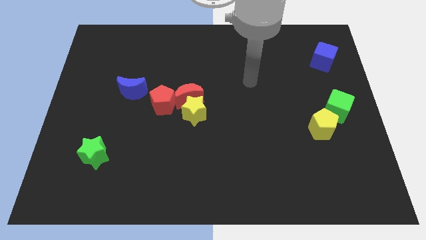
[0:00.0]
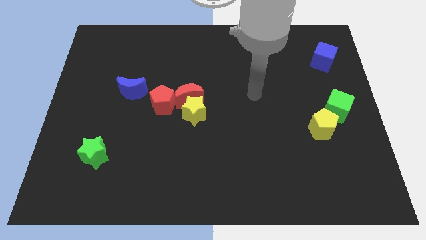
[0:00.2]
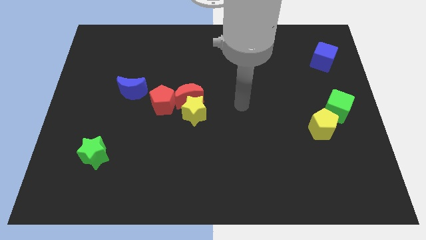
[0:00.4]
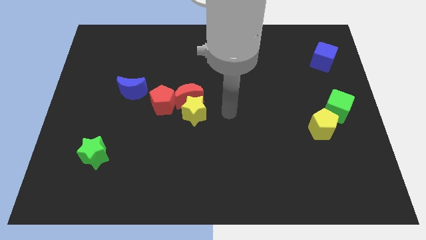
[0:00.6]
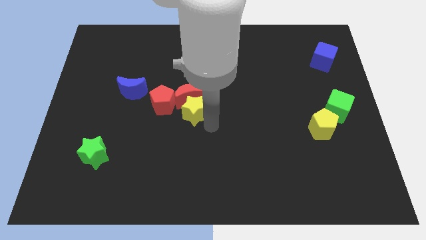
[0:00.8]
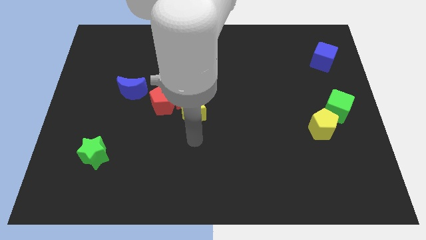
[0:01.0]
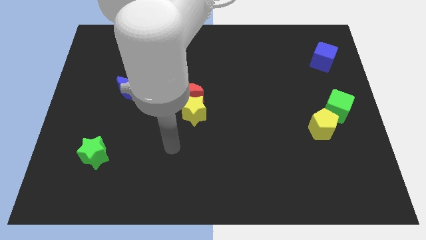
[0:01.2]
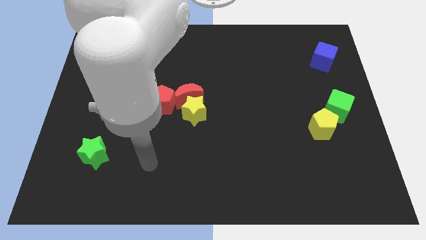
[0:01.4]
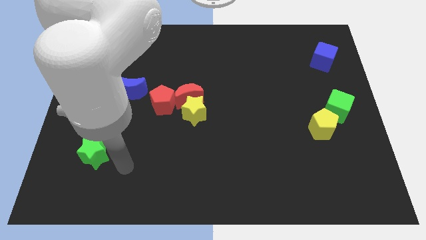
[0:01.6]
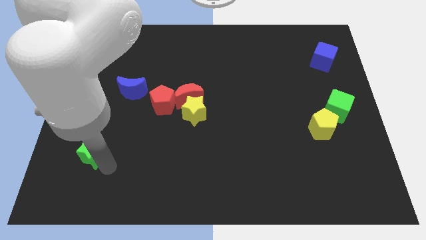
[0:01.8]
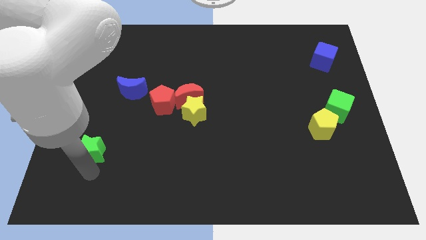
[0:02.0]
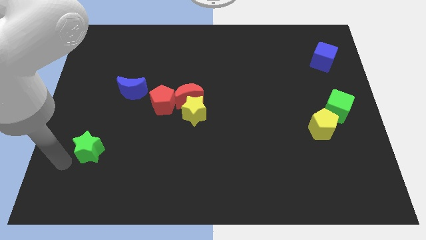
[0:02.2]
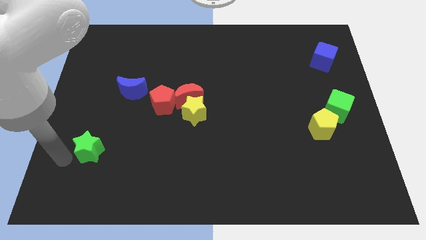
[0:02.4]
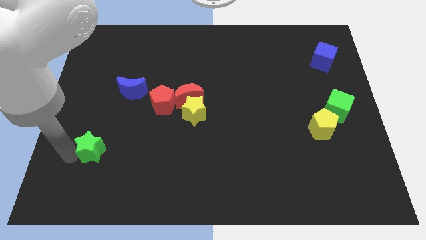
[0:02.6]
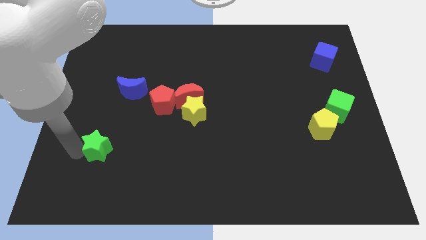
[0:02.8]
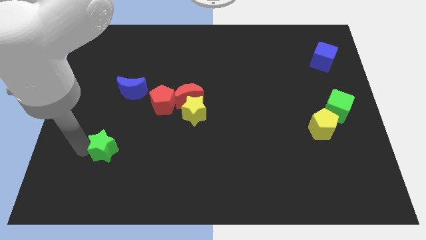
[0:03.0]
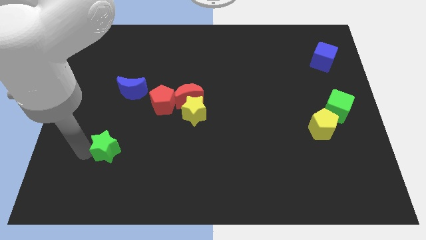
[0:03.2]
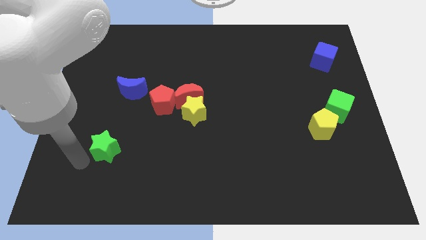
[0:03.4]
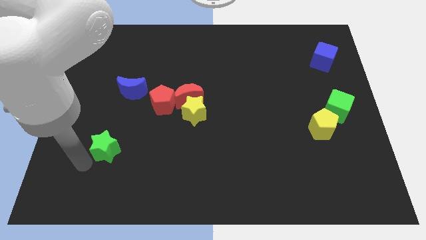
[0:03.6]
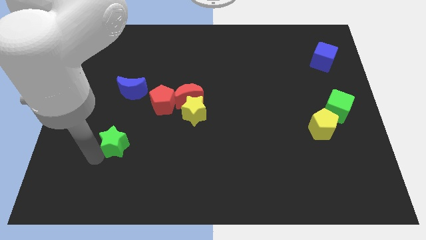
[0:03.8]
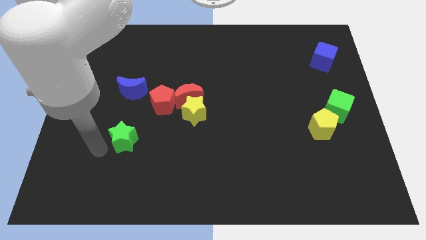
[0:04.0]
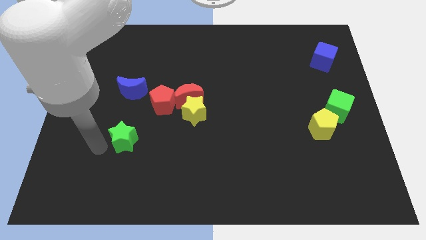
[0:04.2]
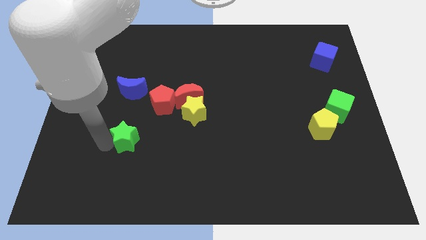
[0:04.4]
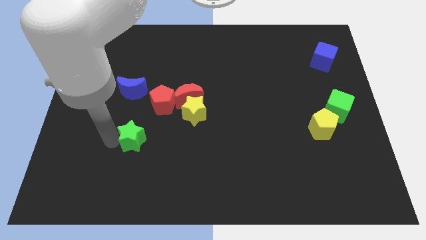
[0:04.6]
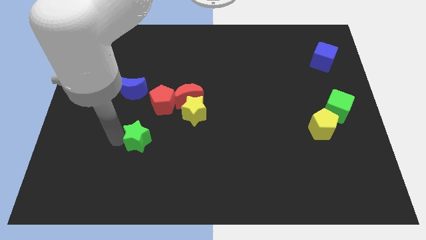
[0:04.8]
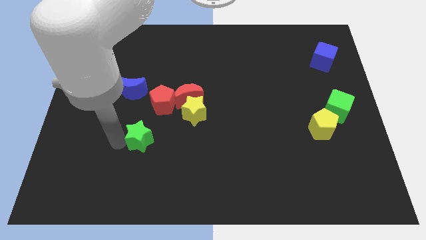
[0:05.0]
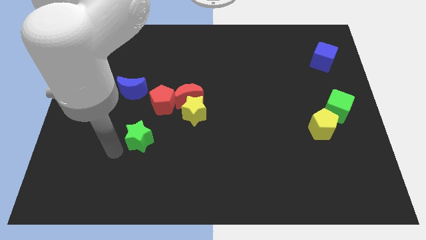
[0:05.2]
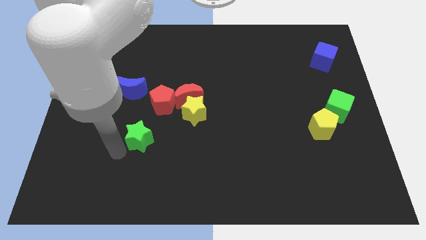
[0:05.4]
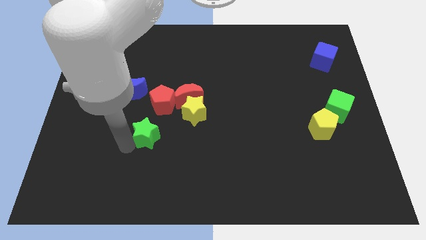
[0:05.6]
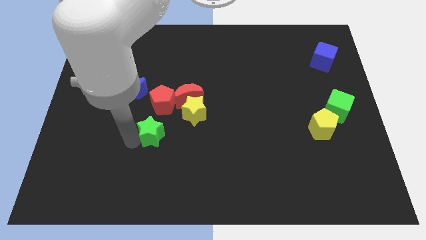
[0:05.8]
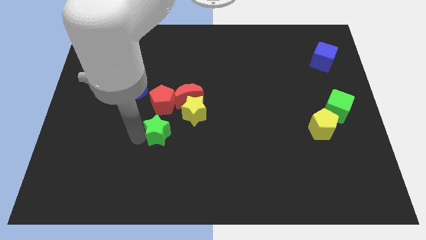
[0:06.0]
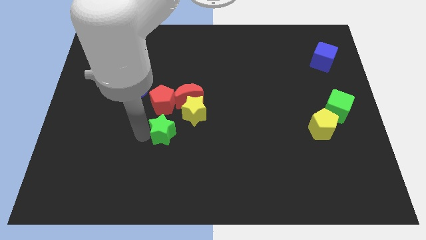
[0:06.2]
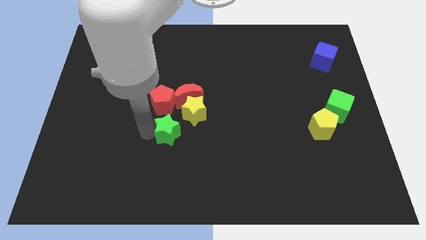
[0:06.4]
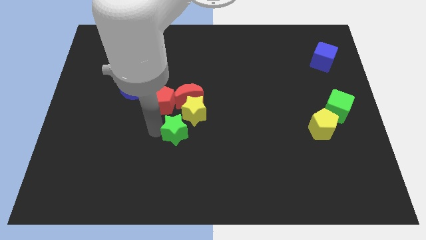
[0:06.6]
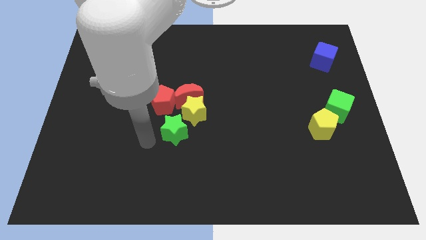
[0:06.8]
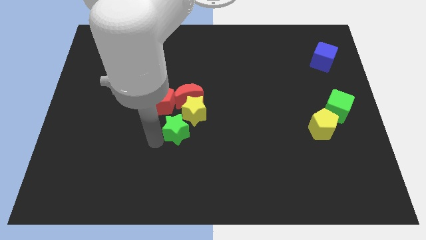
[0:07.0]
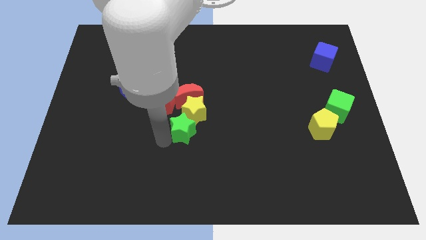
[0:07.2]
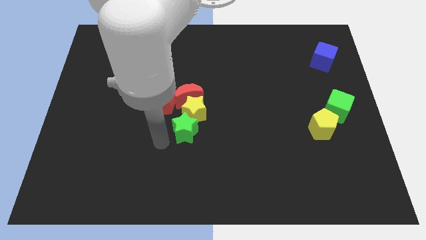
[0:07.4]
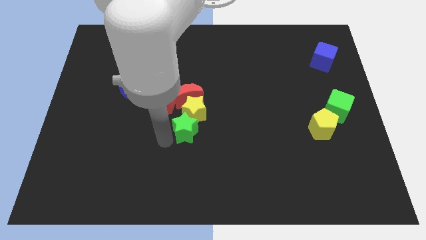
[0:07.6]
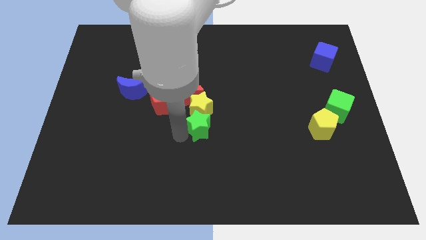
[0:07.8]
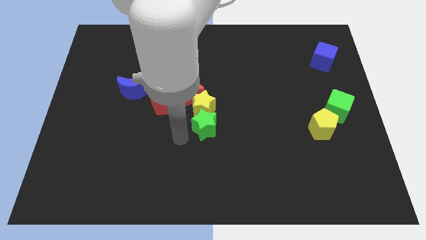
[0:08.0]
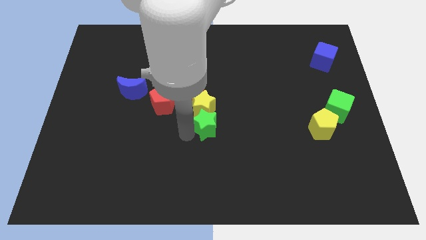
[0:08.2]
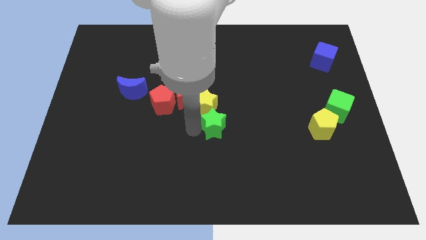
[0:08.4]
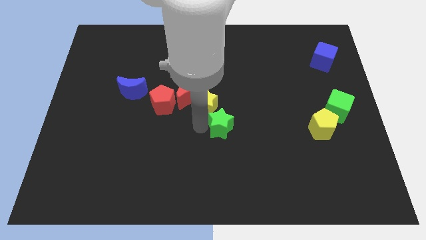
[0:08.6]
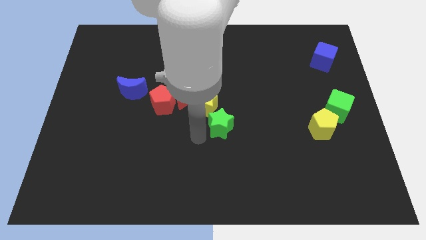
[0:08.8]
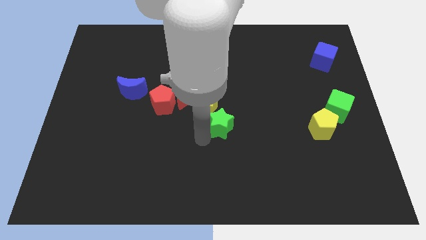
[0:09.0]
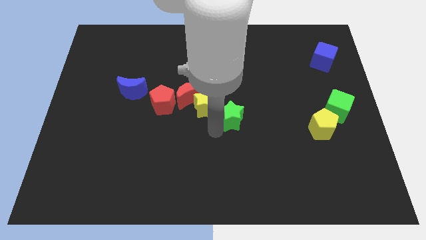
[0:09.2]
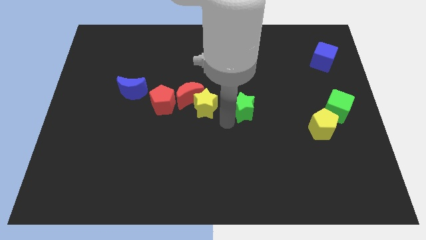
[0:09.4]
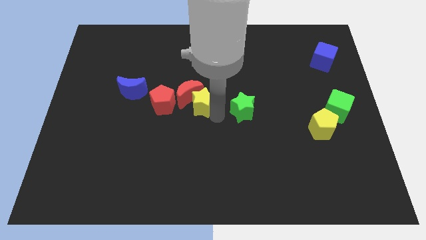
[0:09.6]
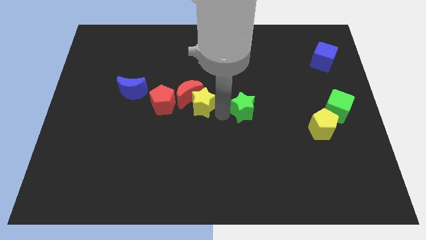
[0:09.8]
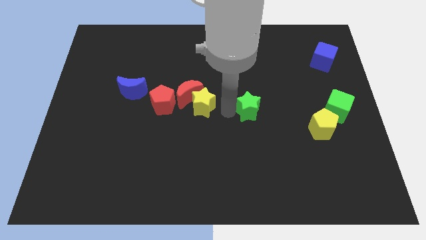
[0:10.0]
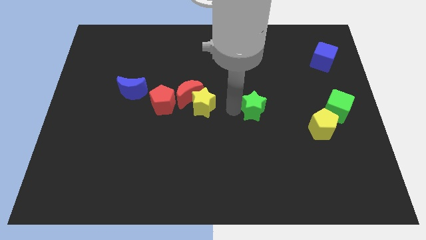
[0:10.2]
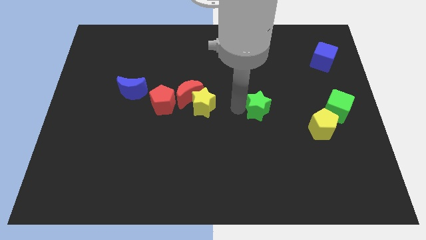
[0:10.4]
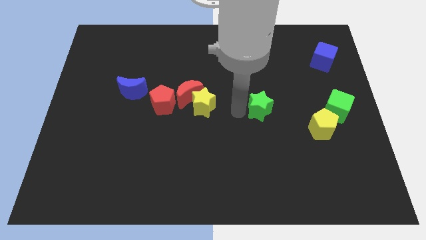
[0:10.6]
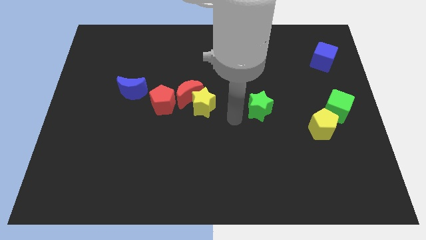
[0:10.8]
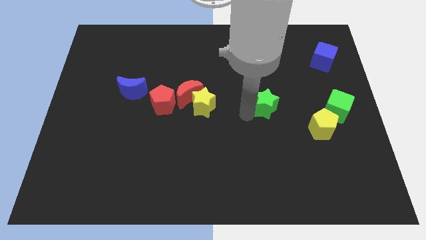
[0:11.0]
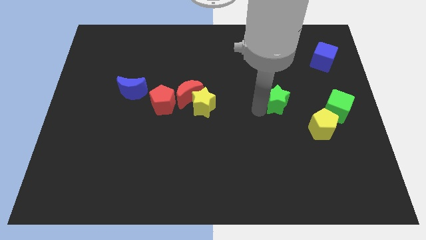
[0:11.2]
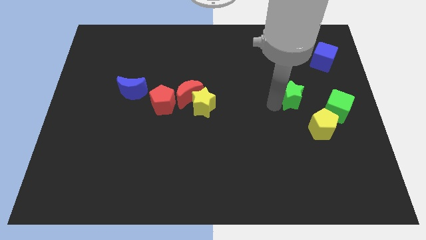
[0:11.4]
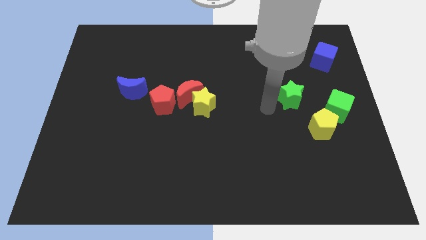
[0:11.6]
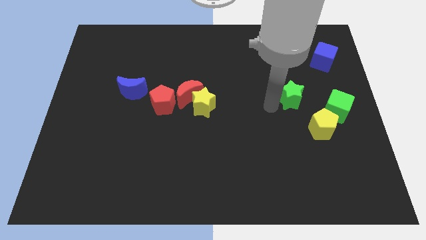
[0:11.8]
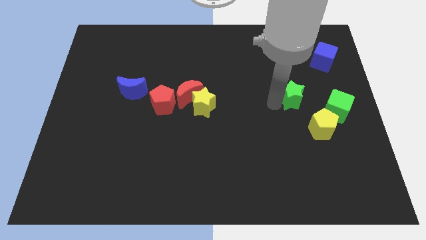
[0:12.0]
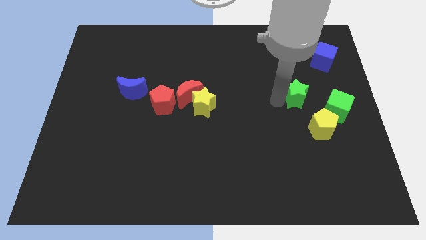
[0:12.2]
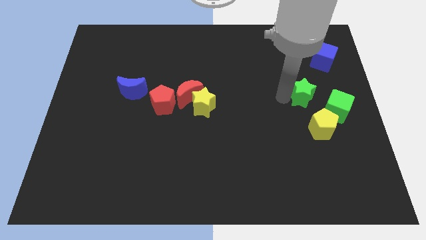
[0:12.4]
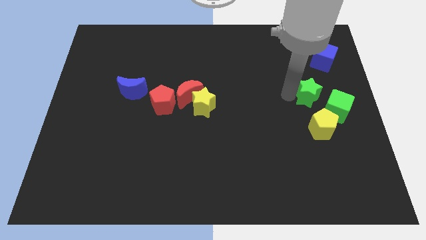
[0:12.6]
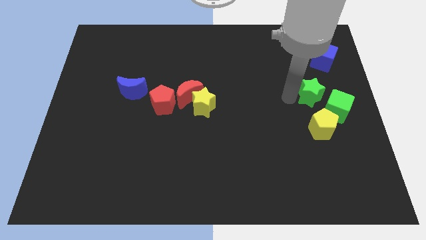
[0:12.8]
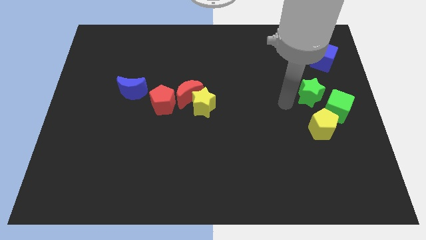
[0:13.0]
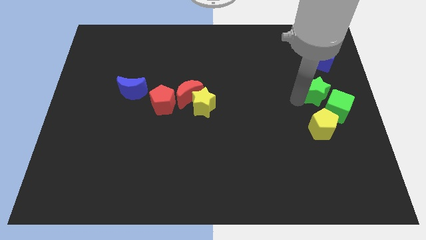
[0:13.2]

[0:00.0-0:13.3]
move the green star to the bottom side of the blue cube
